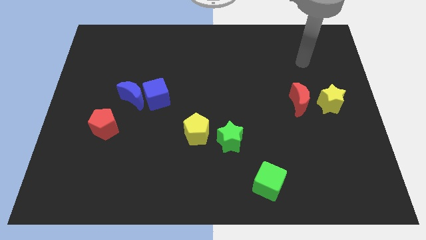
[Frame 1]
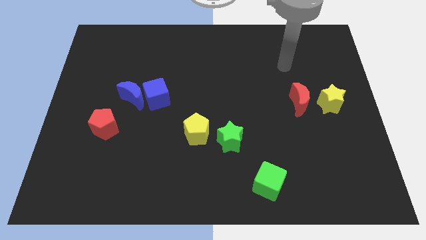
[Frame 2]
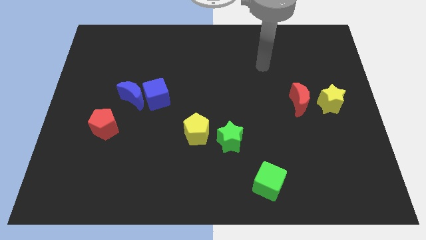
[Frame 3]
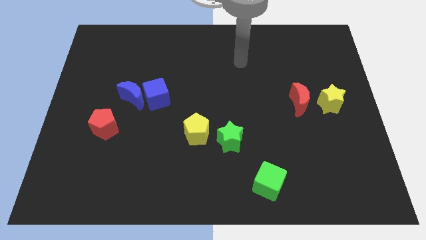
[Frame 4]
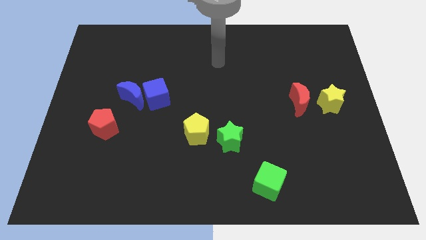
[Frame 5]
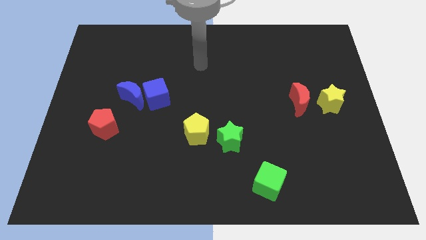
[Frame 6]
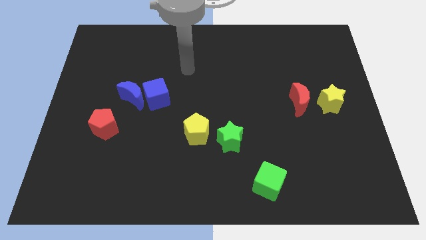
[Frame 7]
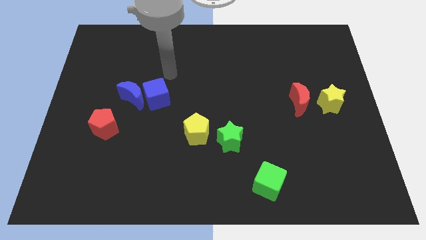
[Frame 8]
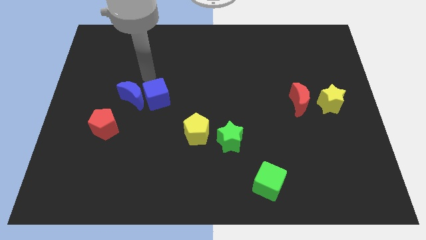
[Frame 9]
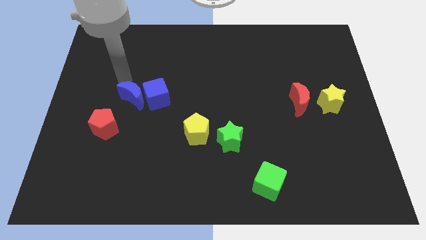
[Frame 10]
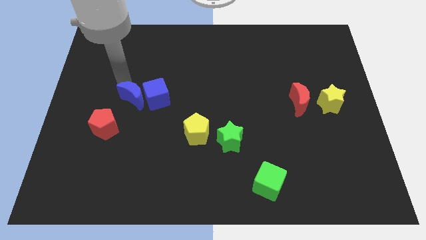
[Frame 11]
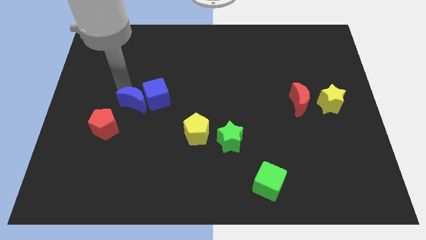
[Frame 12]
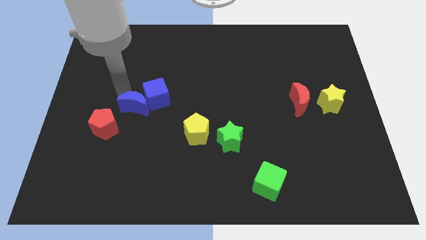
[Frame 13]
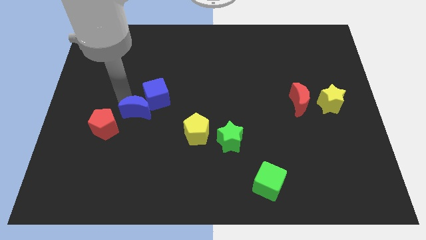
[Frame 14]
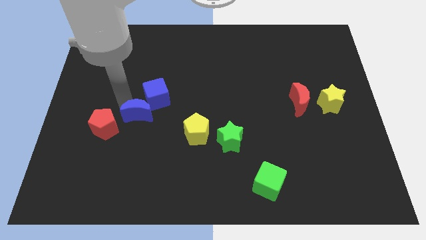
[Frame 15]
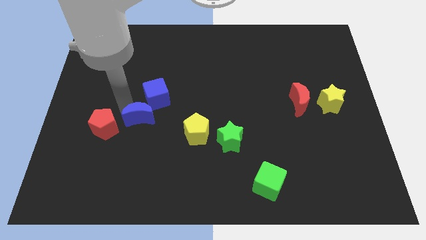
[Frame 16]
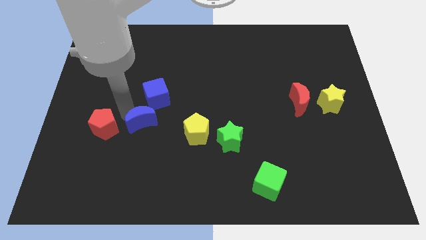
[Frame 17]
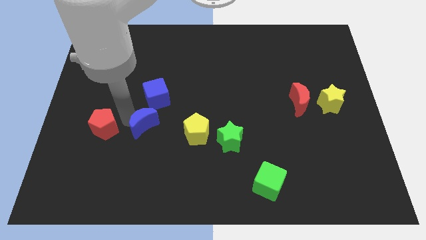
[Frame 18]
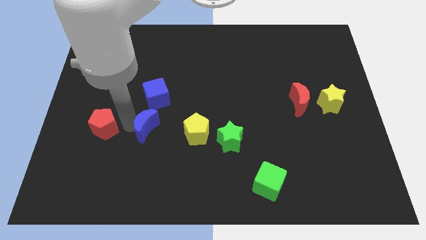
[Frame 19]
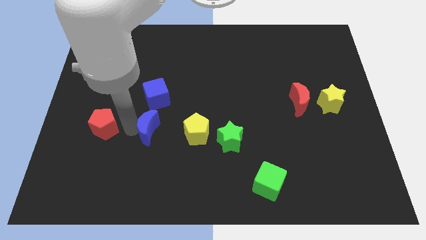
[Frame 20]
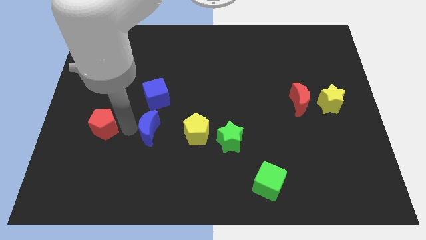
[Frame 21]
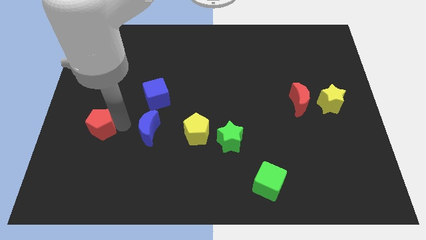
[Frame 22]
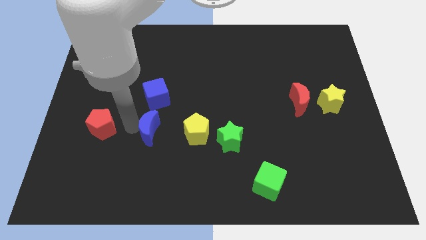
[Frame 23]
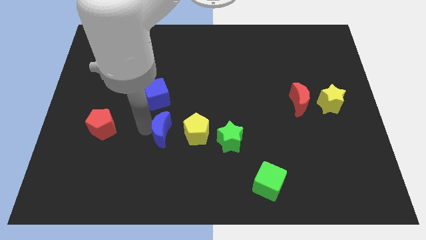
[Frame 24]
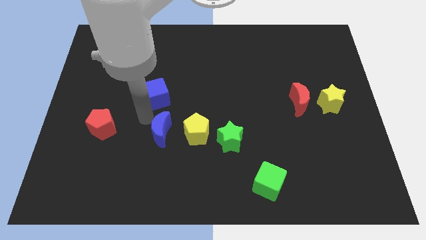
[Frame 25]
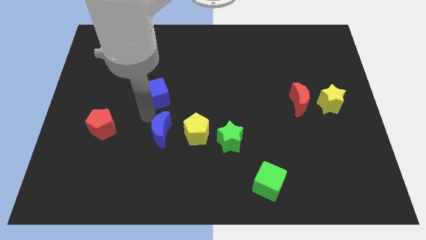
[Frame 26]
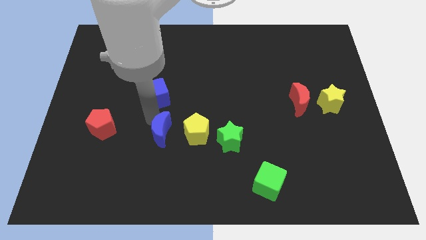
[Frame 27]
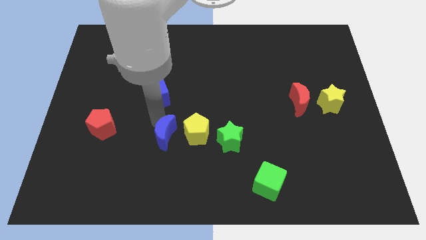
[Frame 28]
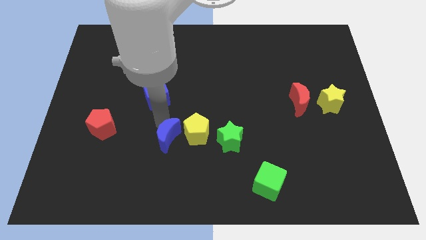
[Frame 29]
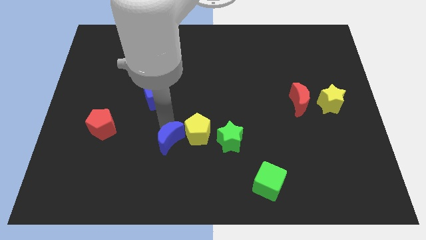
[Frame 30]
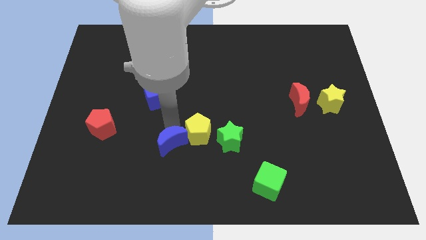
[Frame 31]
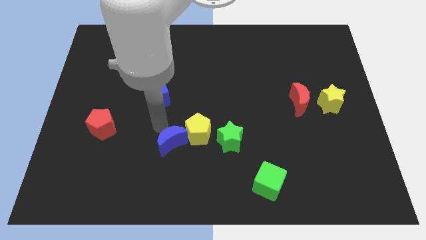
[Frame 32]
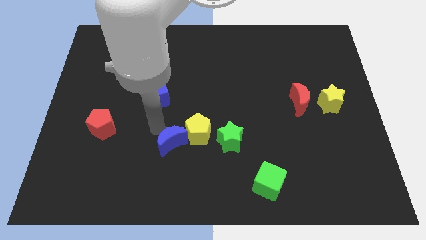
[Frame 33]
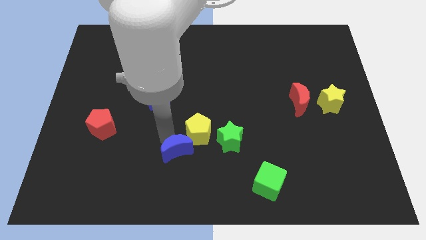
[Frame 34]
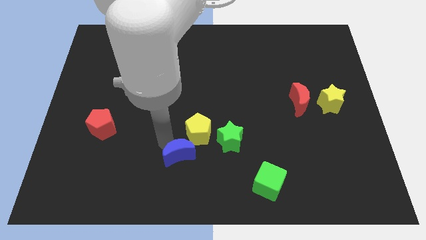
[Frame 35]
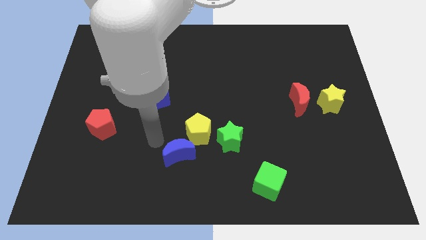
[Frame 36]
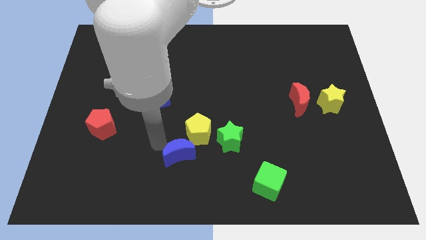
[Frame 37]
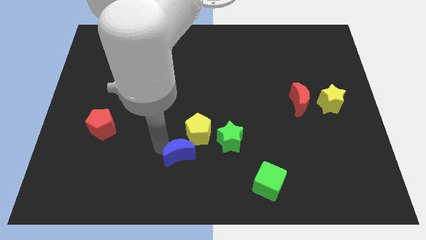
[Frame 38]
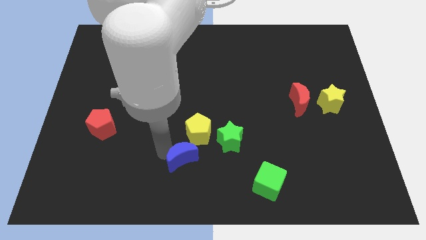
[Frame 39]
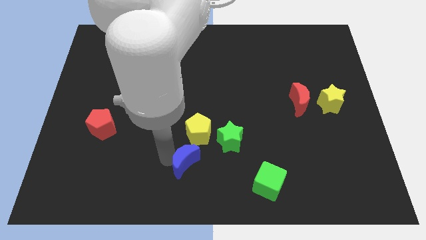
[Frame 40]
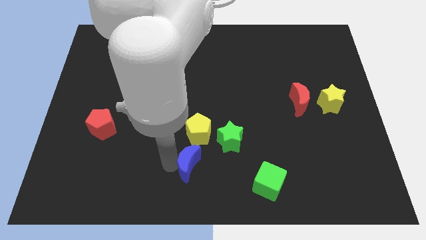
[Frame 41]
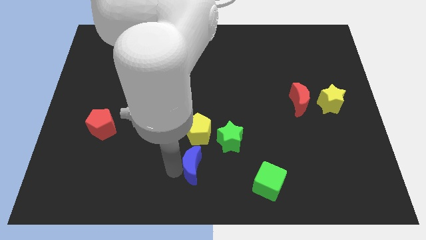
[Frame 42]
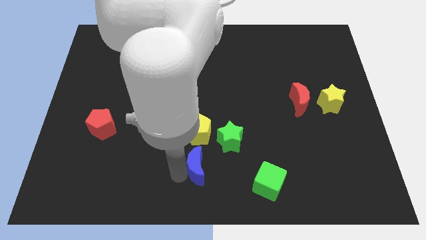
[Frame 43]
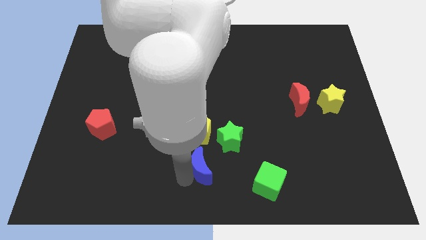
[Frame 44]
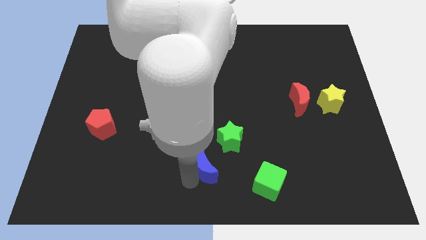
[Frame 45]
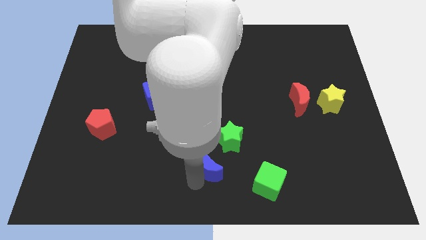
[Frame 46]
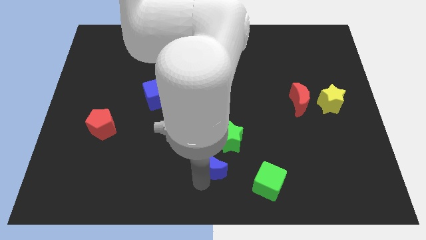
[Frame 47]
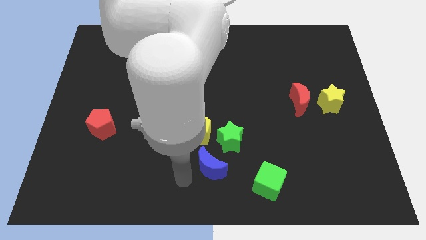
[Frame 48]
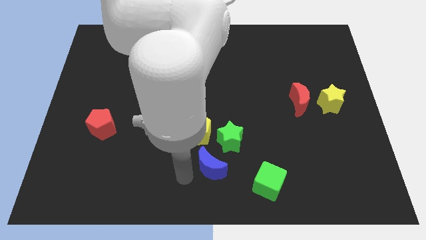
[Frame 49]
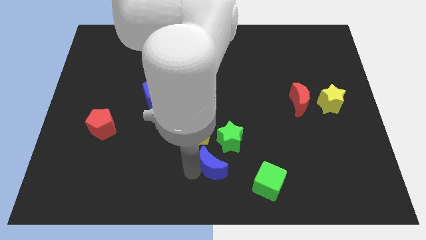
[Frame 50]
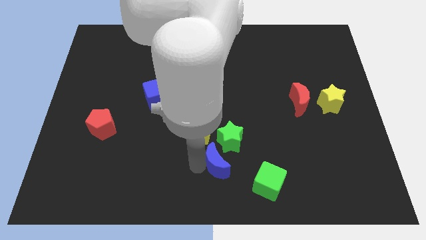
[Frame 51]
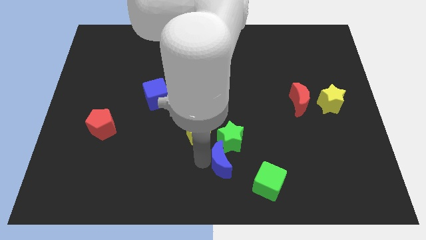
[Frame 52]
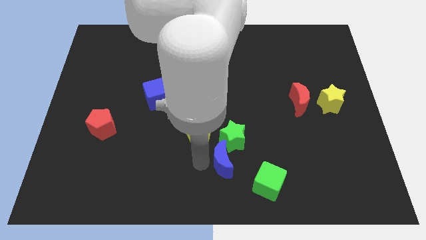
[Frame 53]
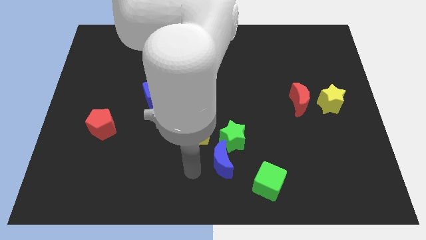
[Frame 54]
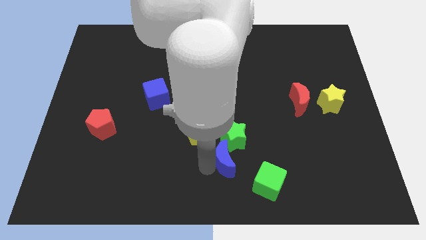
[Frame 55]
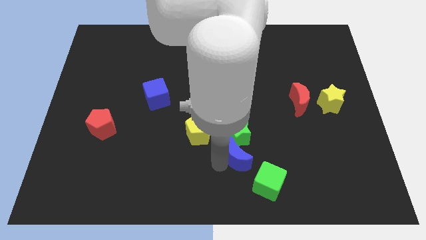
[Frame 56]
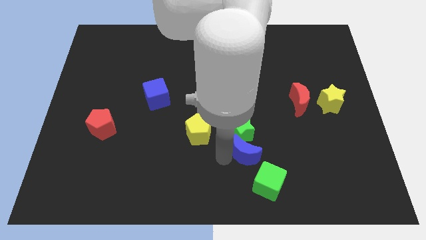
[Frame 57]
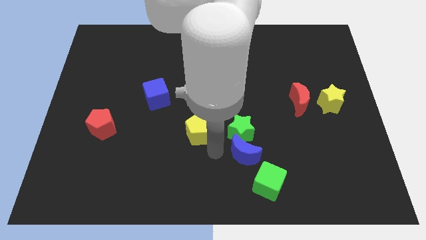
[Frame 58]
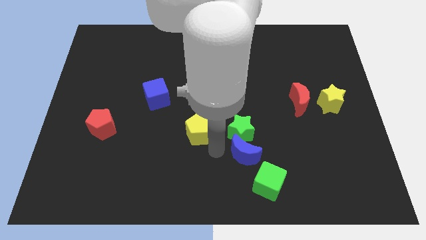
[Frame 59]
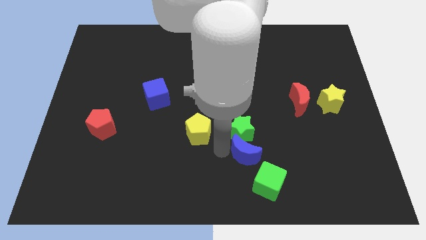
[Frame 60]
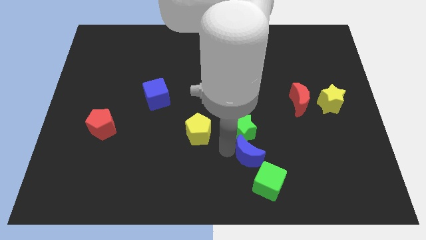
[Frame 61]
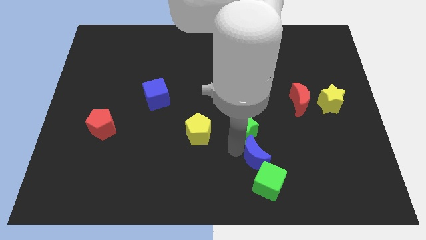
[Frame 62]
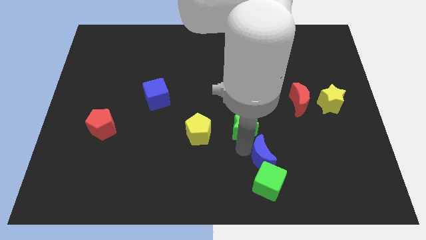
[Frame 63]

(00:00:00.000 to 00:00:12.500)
move the blue moon to the top right side of the green cube

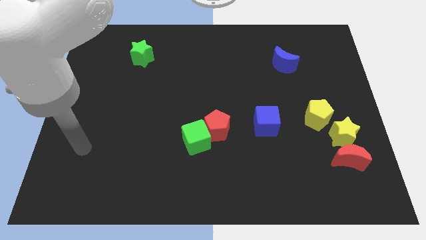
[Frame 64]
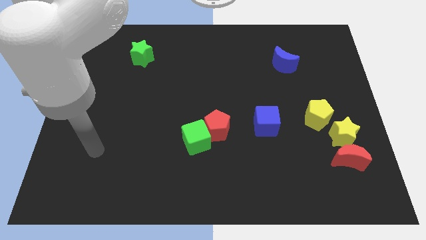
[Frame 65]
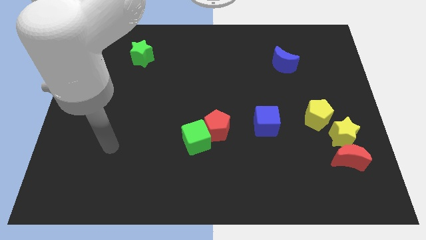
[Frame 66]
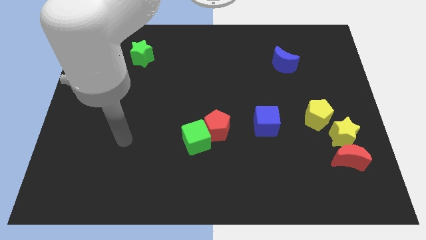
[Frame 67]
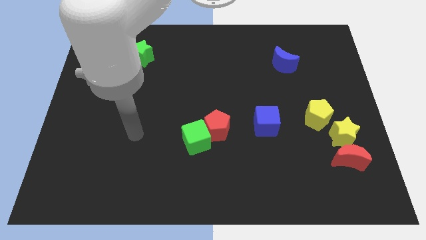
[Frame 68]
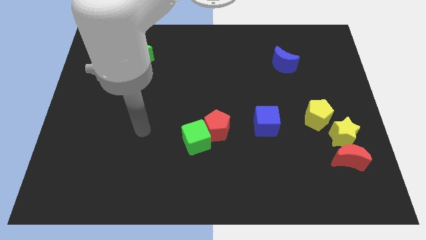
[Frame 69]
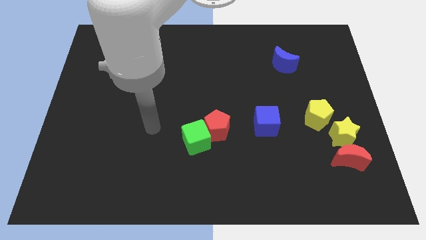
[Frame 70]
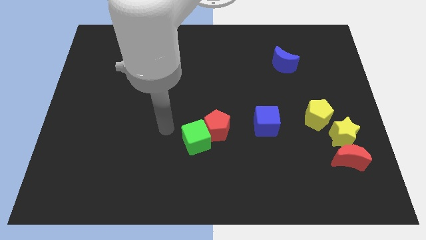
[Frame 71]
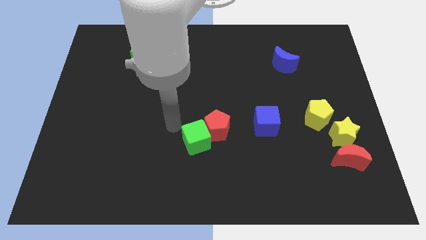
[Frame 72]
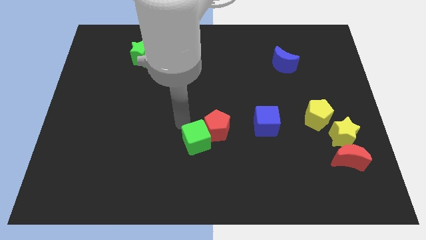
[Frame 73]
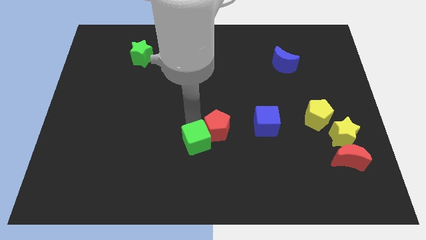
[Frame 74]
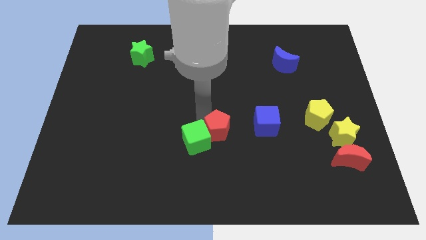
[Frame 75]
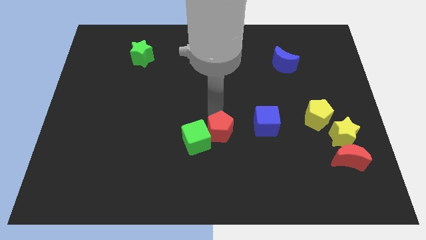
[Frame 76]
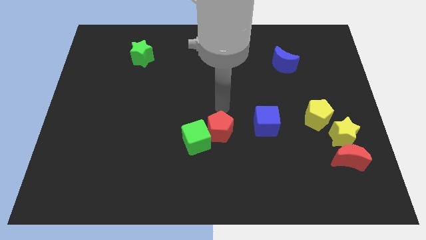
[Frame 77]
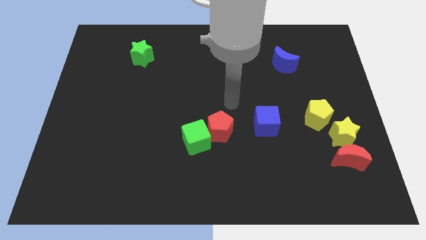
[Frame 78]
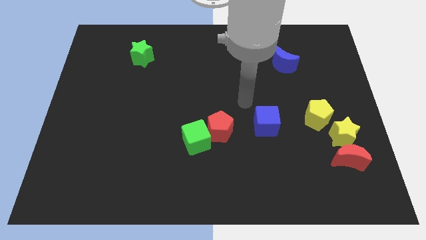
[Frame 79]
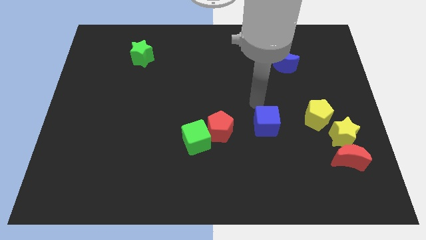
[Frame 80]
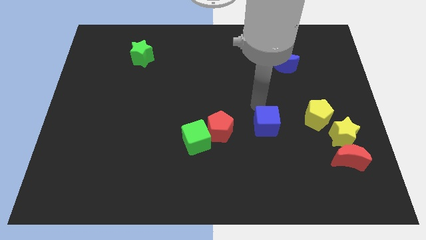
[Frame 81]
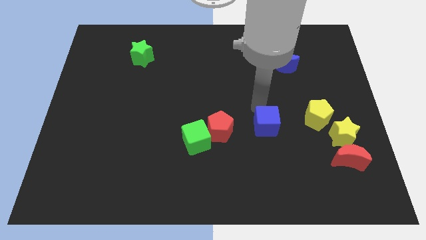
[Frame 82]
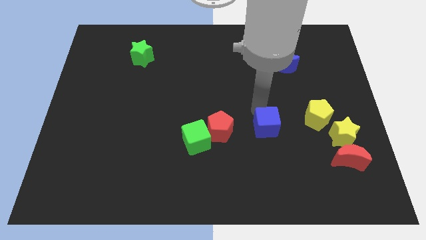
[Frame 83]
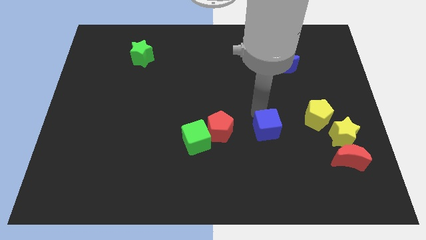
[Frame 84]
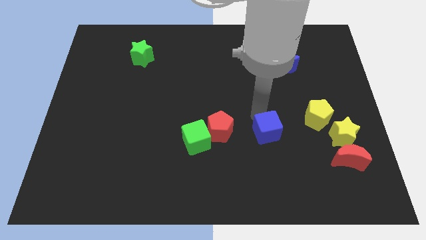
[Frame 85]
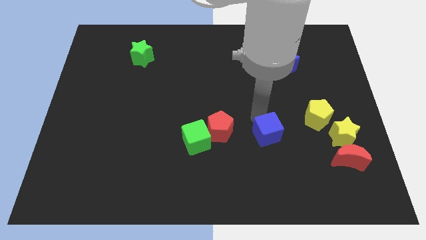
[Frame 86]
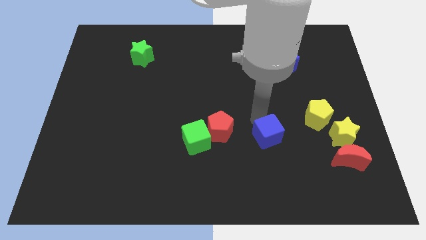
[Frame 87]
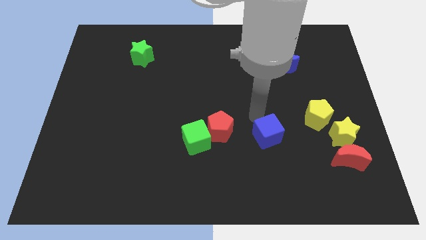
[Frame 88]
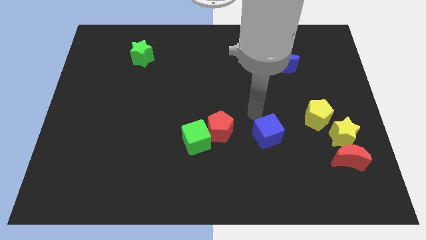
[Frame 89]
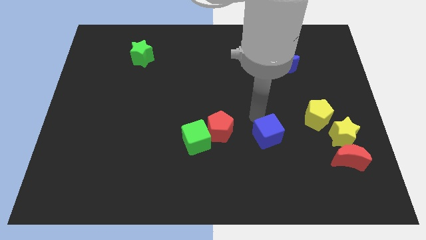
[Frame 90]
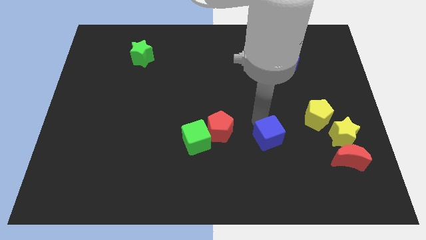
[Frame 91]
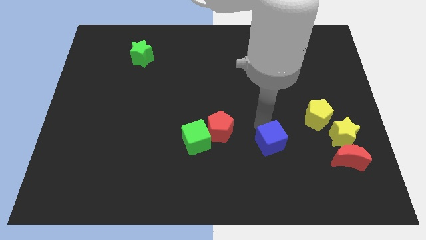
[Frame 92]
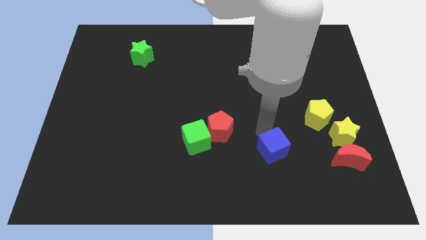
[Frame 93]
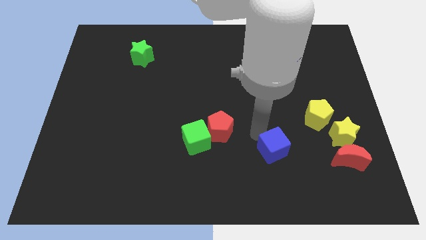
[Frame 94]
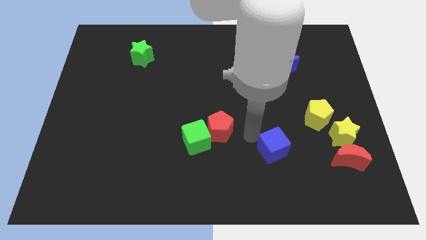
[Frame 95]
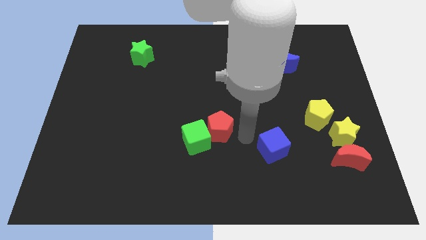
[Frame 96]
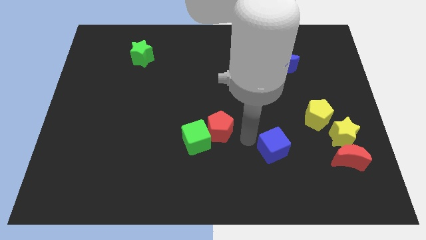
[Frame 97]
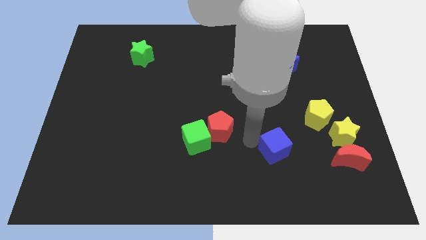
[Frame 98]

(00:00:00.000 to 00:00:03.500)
slide the blue cube just left of the red moon
